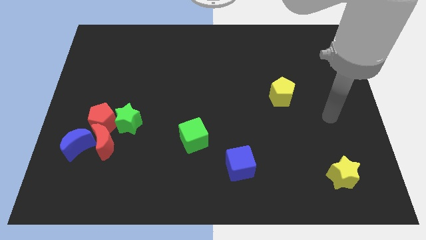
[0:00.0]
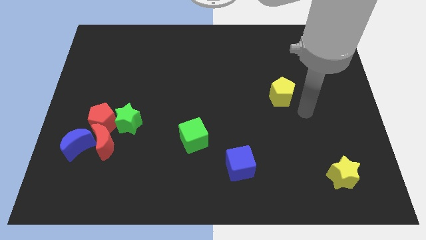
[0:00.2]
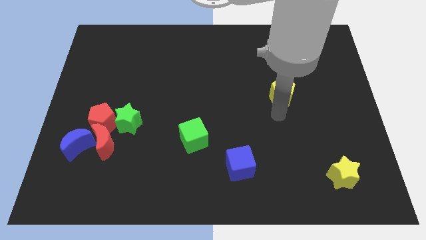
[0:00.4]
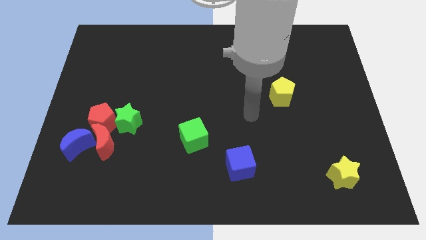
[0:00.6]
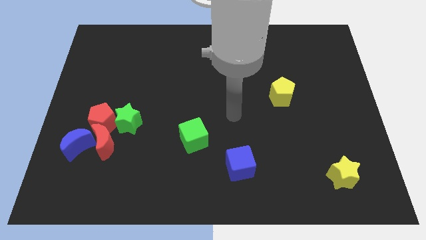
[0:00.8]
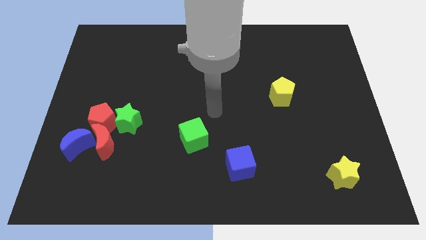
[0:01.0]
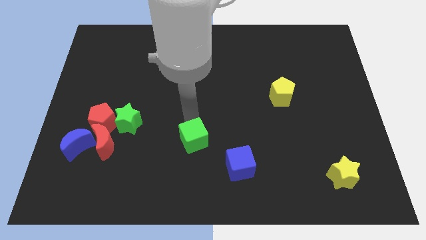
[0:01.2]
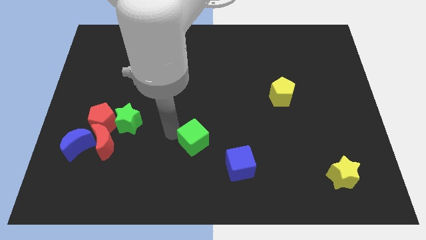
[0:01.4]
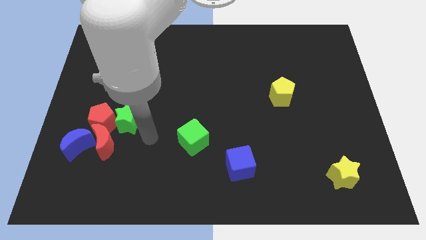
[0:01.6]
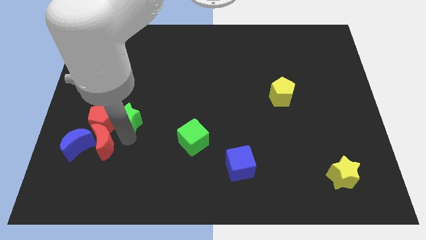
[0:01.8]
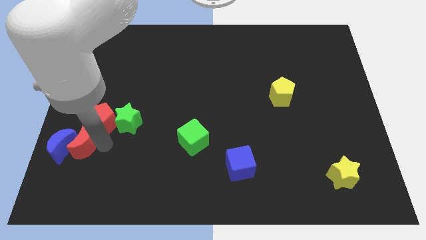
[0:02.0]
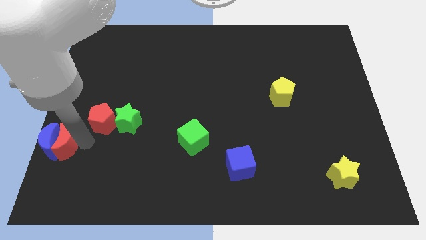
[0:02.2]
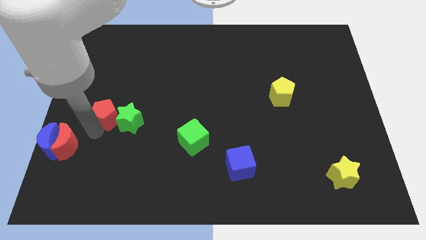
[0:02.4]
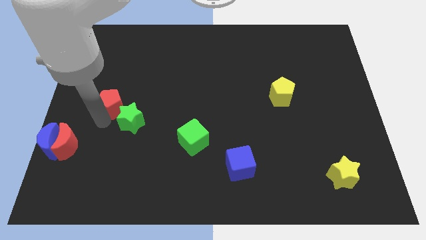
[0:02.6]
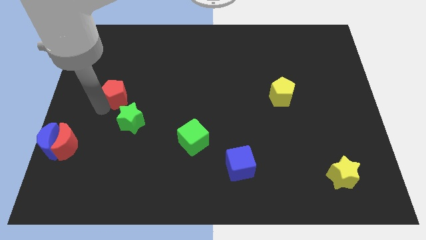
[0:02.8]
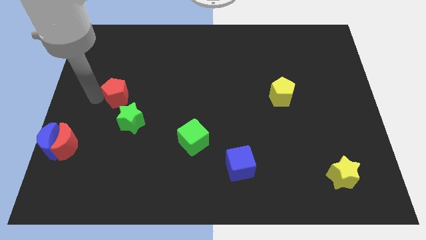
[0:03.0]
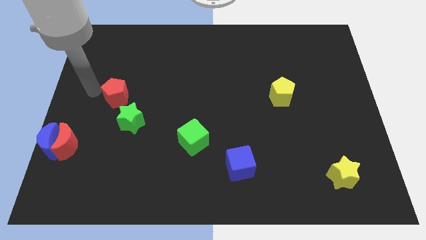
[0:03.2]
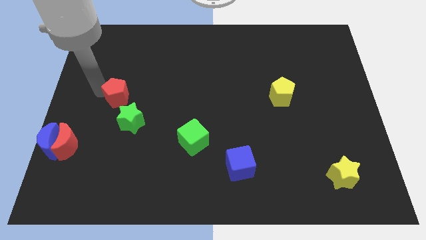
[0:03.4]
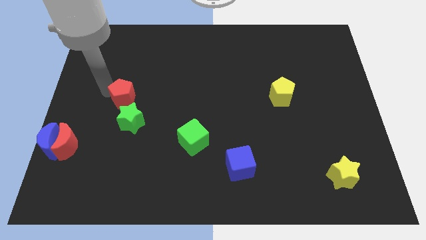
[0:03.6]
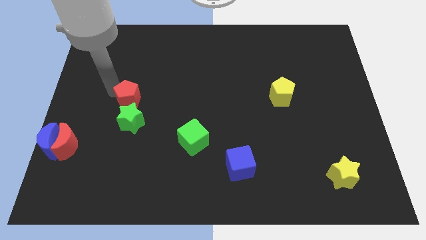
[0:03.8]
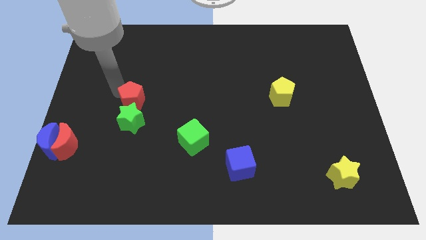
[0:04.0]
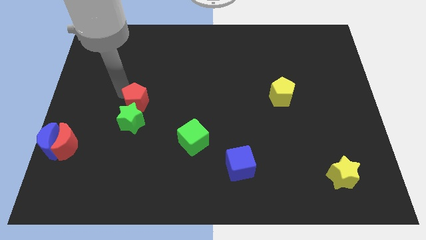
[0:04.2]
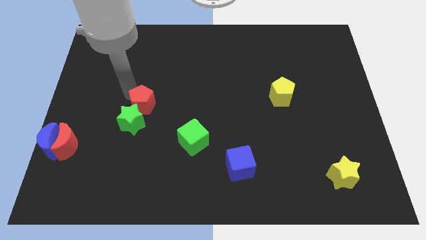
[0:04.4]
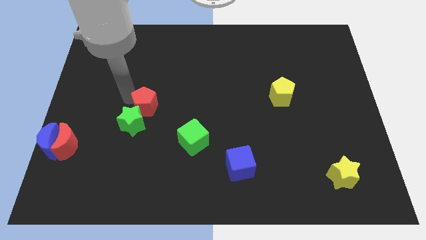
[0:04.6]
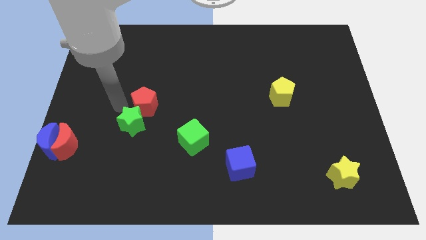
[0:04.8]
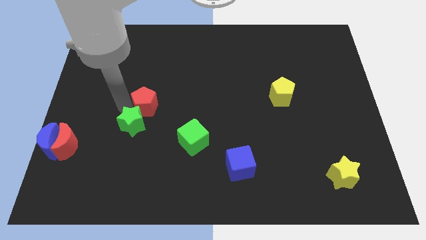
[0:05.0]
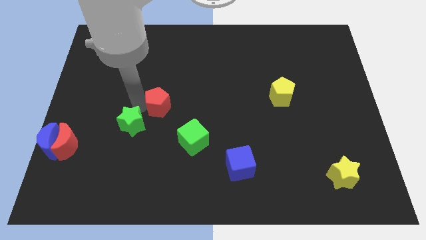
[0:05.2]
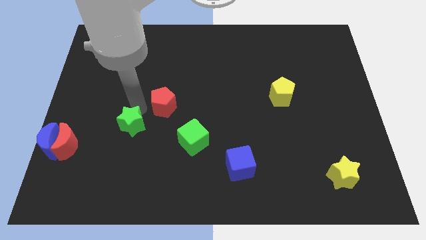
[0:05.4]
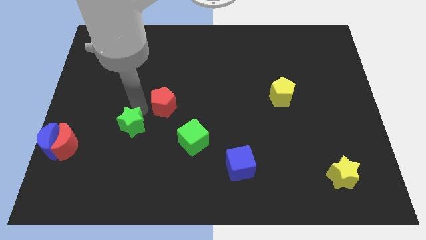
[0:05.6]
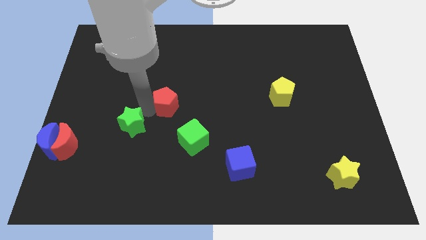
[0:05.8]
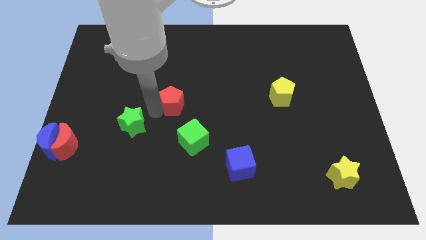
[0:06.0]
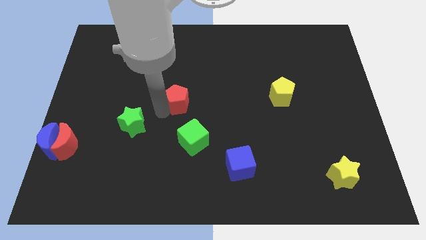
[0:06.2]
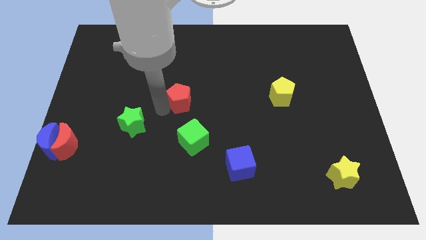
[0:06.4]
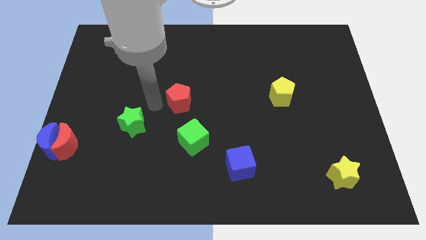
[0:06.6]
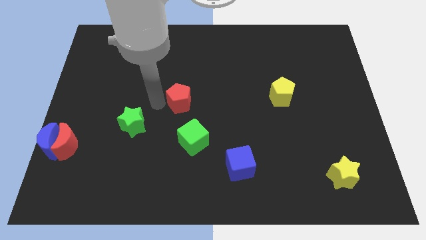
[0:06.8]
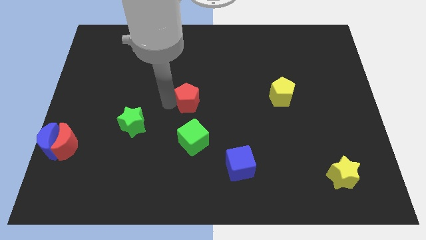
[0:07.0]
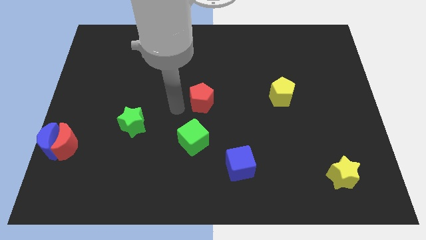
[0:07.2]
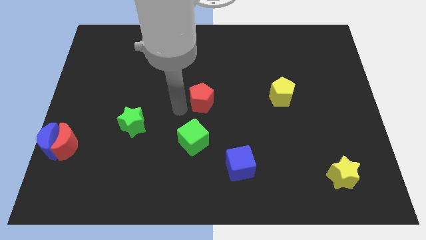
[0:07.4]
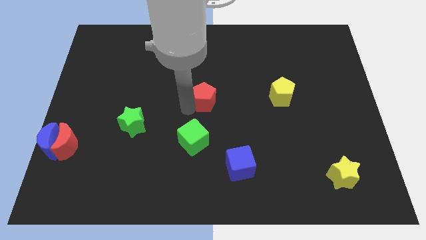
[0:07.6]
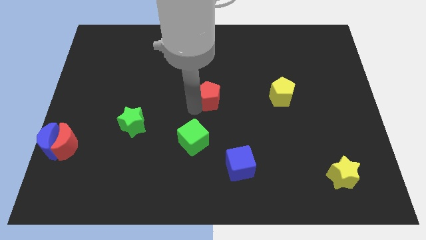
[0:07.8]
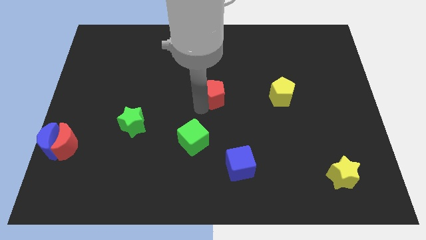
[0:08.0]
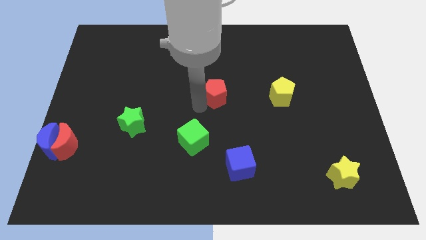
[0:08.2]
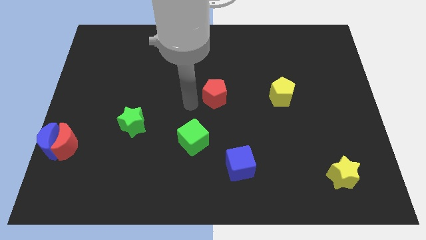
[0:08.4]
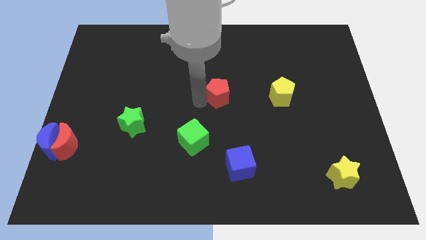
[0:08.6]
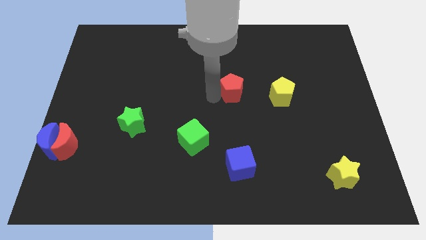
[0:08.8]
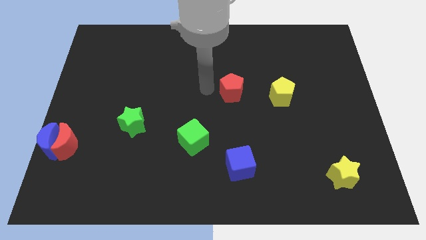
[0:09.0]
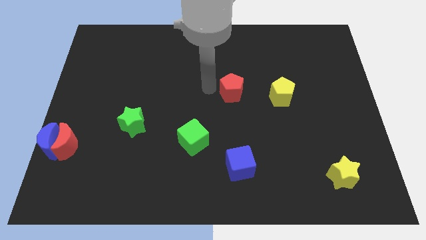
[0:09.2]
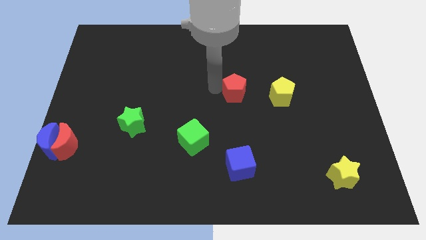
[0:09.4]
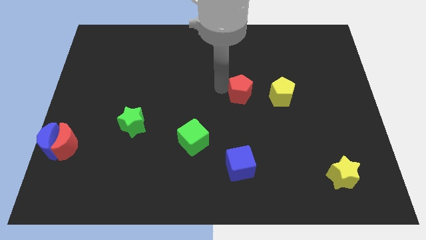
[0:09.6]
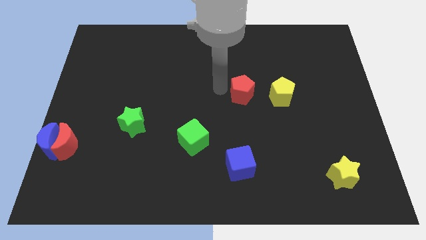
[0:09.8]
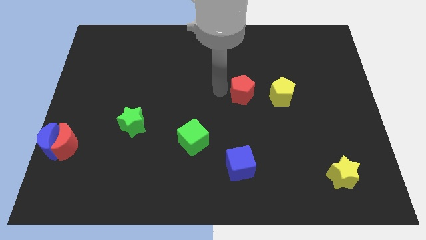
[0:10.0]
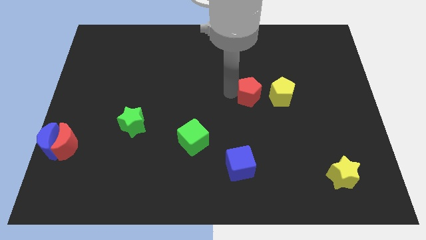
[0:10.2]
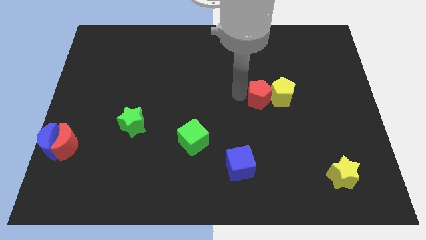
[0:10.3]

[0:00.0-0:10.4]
slide the red pentagon next to the yellow pentagon
